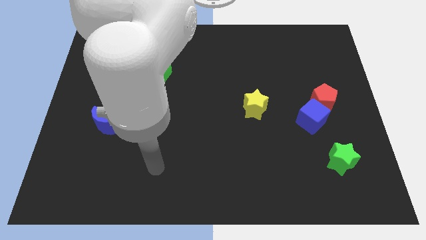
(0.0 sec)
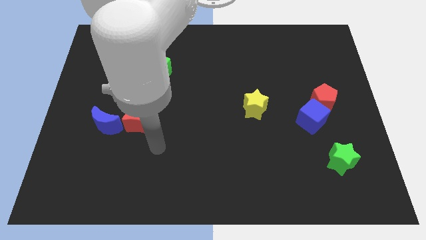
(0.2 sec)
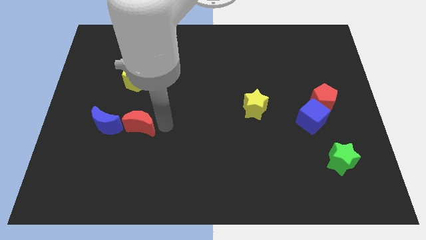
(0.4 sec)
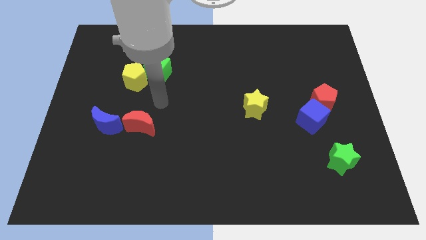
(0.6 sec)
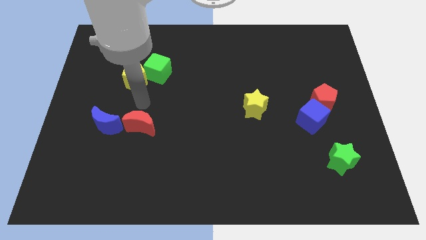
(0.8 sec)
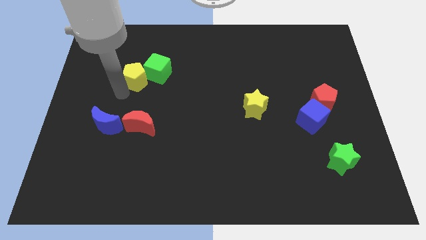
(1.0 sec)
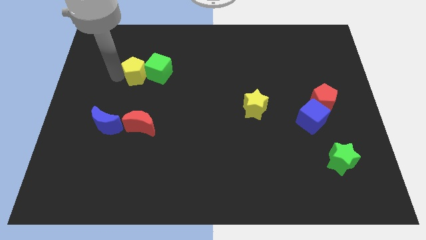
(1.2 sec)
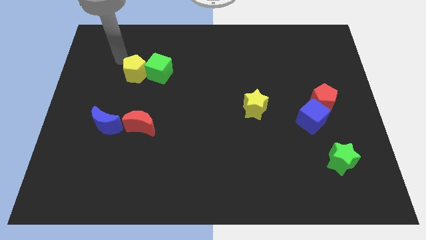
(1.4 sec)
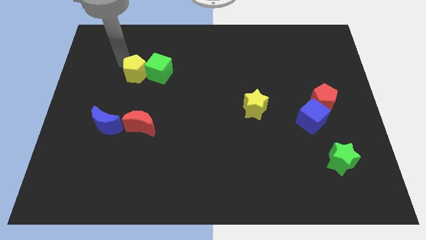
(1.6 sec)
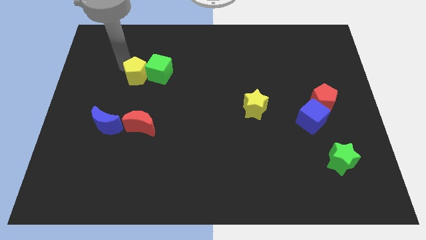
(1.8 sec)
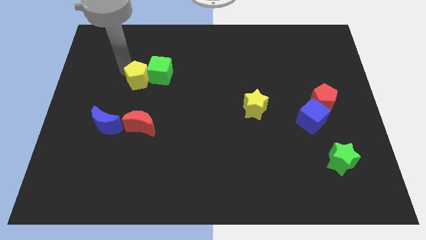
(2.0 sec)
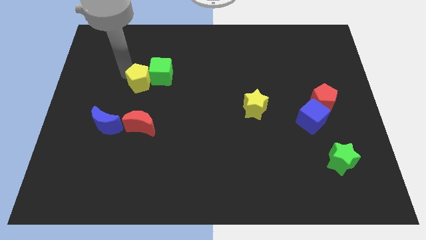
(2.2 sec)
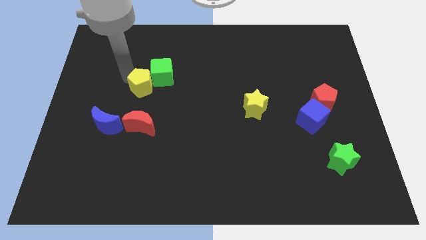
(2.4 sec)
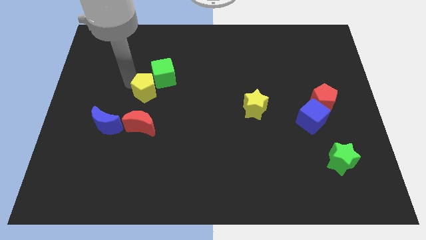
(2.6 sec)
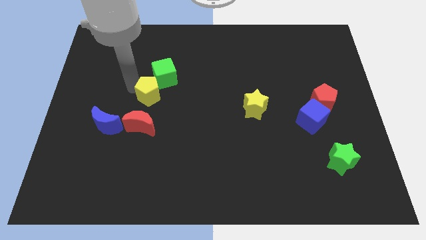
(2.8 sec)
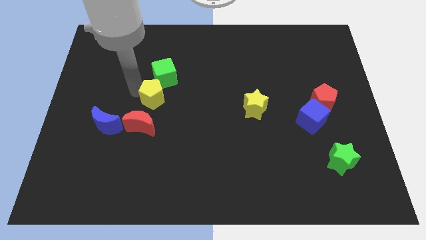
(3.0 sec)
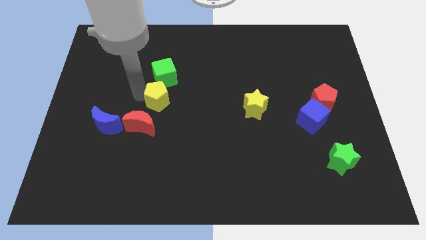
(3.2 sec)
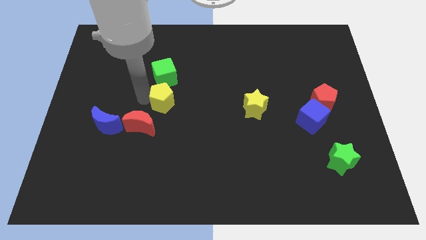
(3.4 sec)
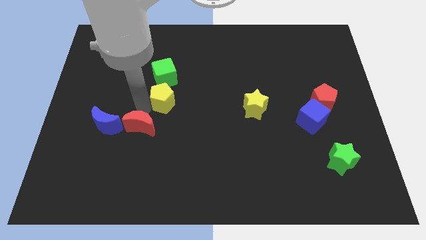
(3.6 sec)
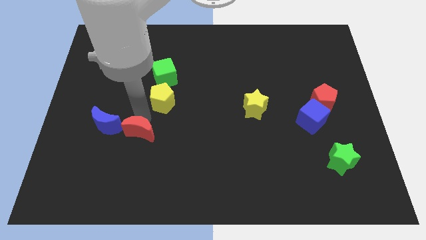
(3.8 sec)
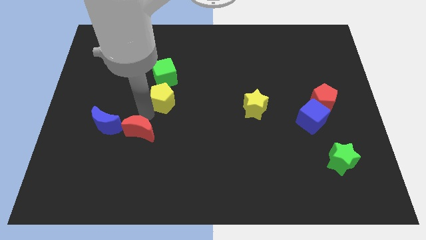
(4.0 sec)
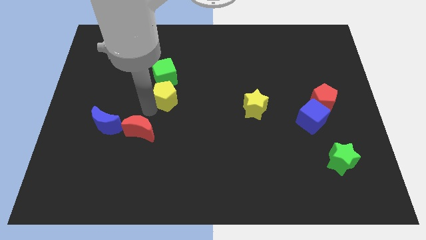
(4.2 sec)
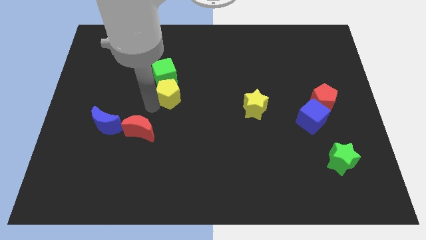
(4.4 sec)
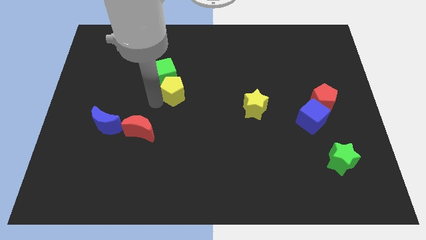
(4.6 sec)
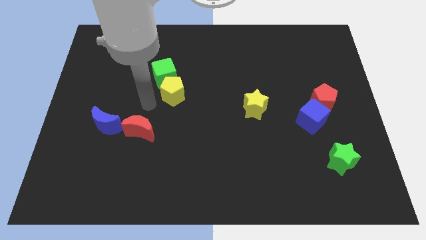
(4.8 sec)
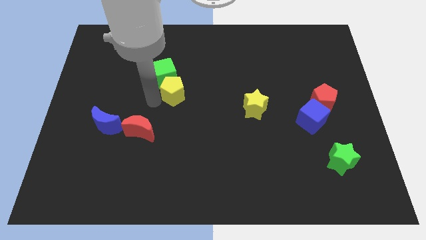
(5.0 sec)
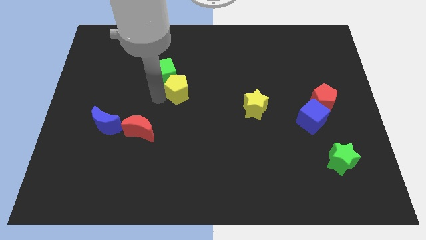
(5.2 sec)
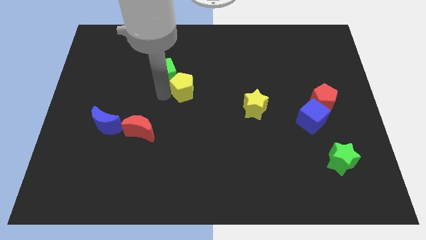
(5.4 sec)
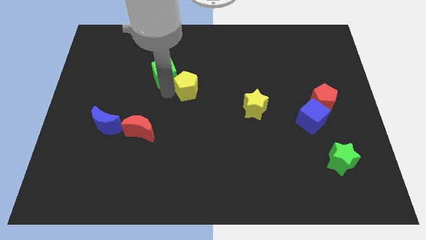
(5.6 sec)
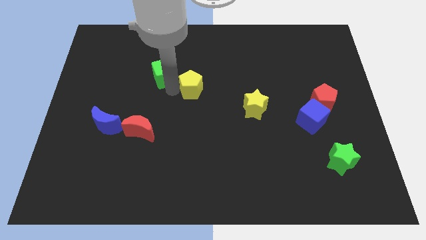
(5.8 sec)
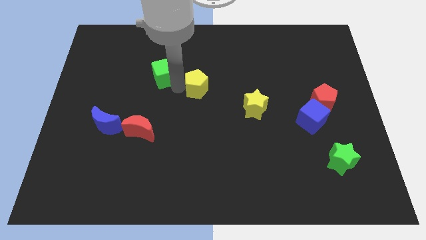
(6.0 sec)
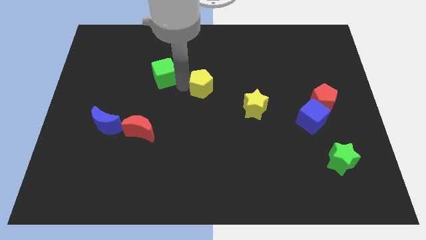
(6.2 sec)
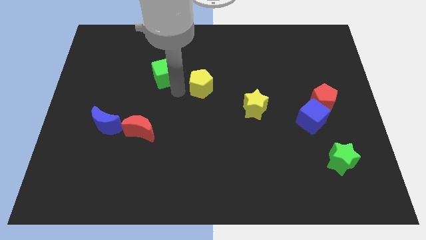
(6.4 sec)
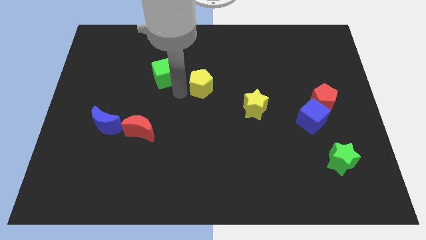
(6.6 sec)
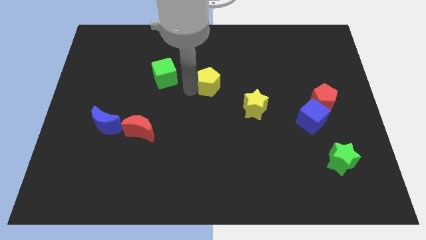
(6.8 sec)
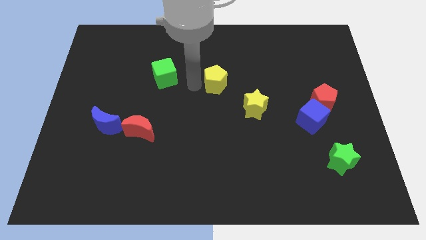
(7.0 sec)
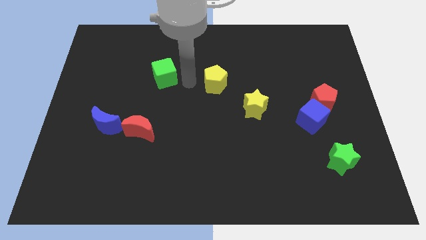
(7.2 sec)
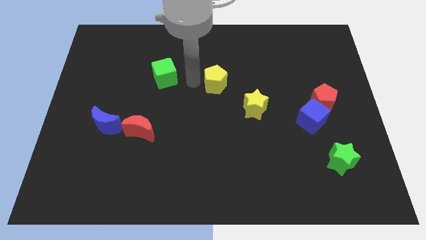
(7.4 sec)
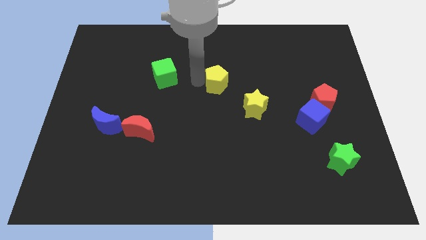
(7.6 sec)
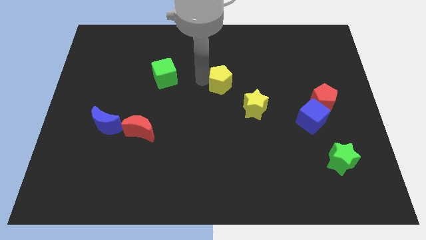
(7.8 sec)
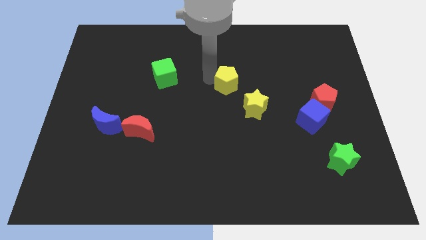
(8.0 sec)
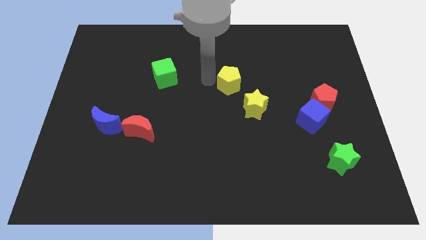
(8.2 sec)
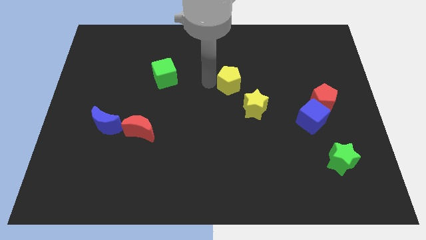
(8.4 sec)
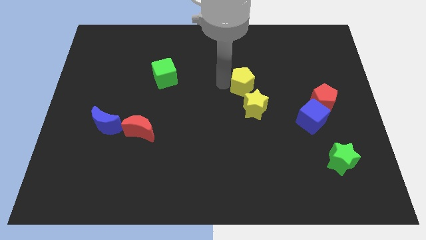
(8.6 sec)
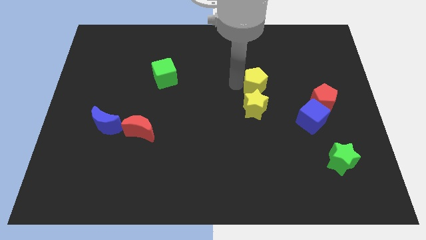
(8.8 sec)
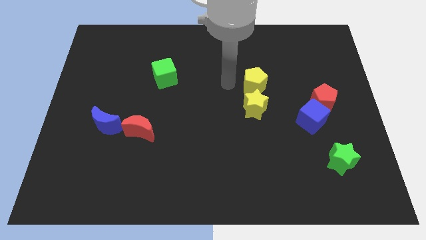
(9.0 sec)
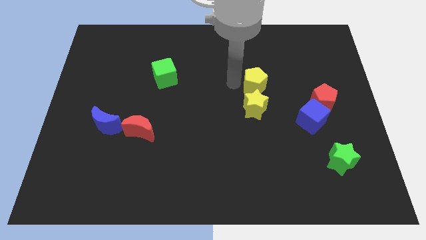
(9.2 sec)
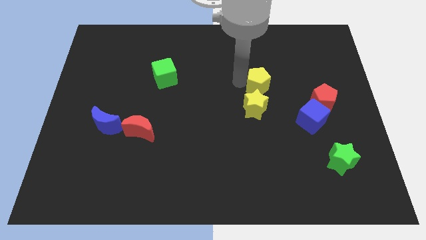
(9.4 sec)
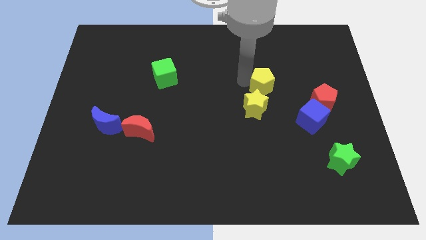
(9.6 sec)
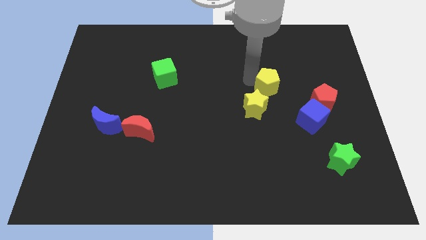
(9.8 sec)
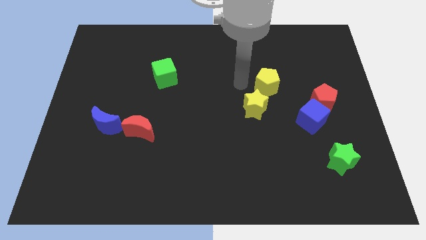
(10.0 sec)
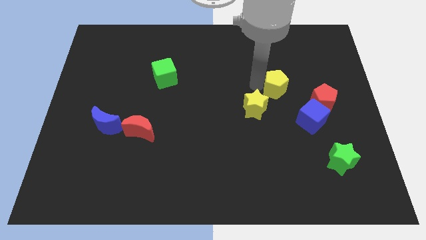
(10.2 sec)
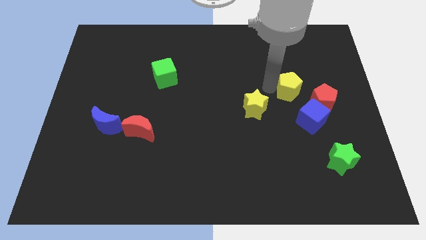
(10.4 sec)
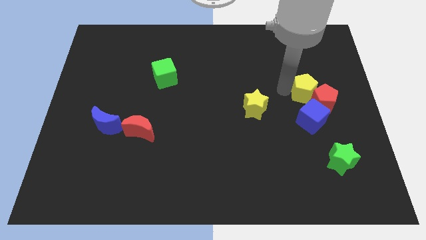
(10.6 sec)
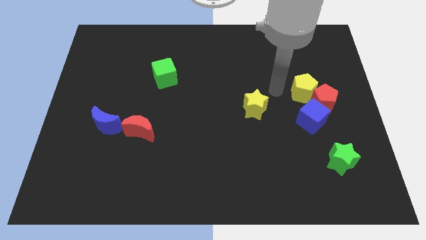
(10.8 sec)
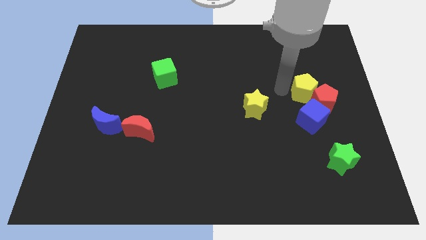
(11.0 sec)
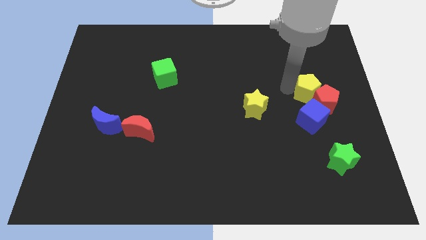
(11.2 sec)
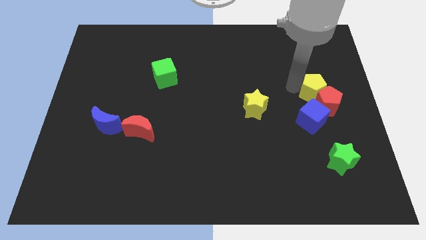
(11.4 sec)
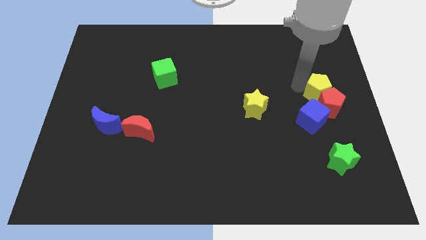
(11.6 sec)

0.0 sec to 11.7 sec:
put the yellow pentagon to the right side

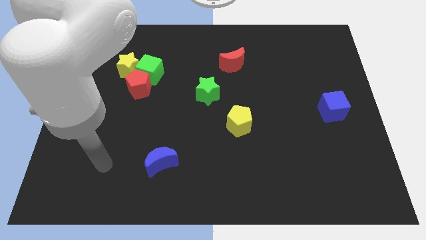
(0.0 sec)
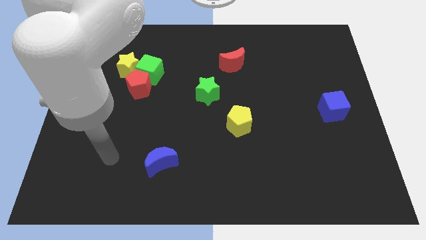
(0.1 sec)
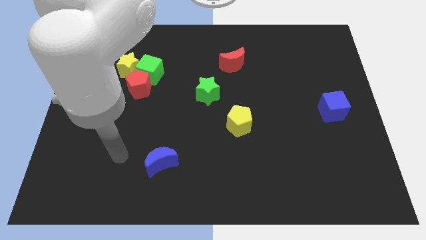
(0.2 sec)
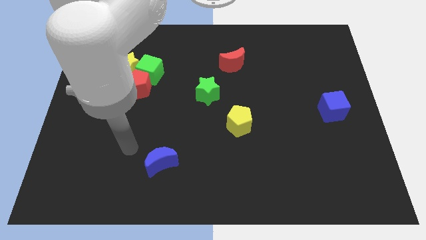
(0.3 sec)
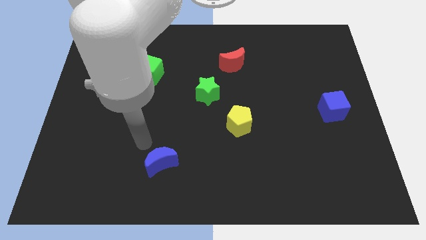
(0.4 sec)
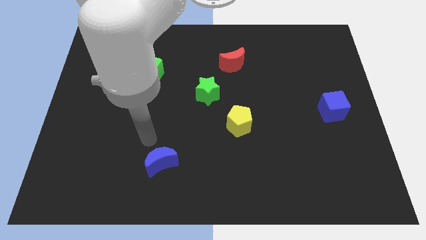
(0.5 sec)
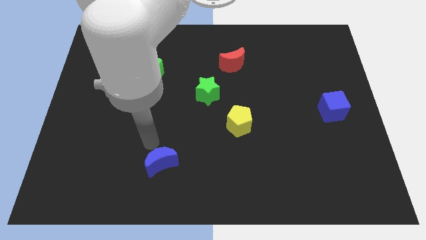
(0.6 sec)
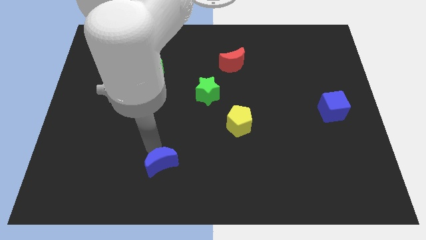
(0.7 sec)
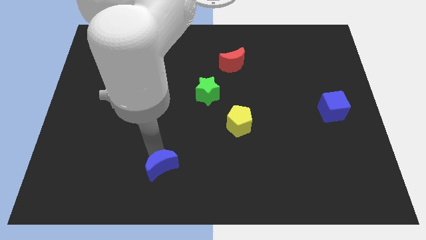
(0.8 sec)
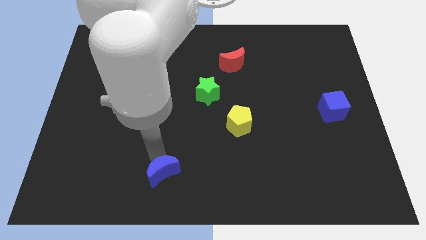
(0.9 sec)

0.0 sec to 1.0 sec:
put the blue moon to the bottom
